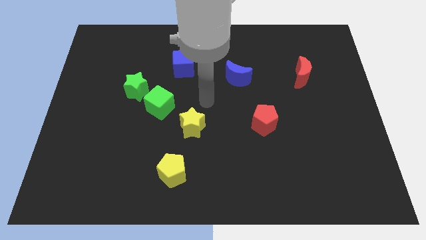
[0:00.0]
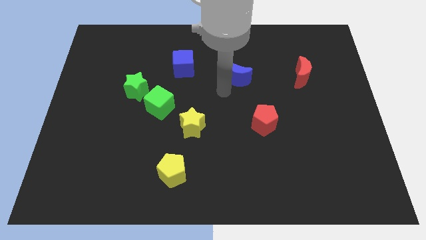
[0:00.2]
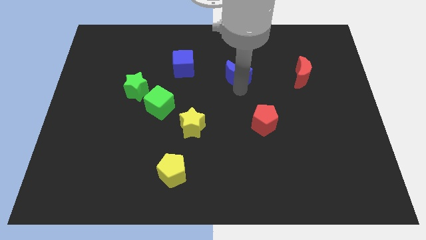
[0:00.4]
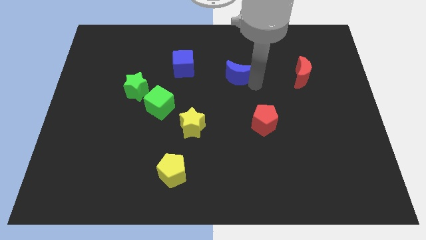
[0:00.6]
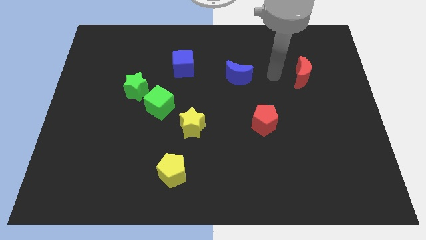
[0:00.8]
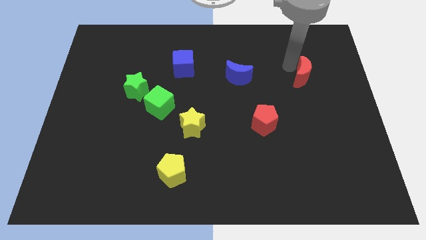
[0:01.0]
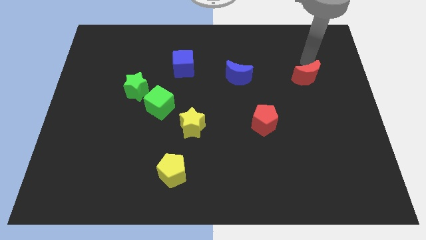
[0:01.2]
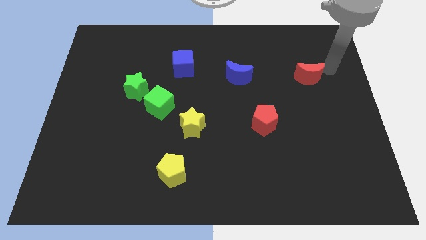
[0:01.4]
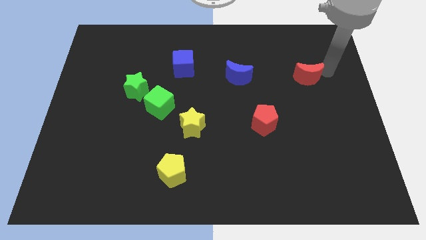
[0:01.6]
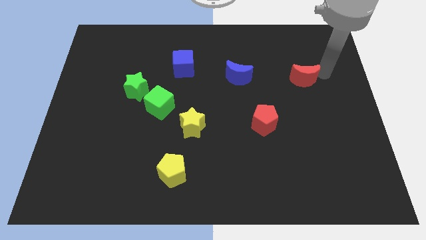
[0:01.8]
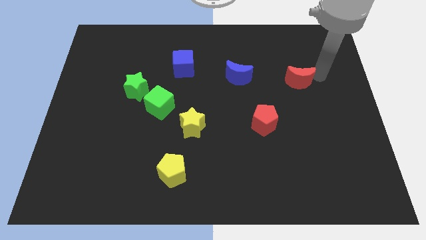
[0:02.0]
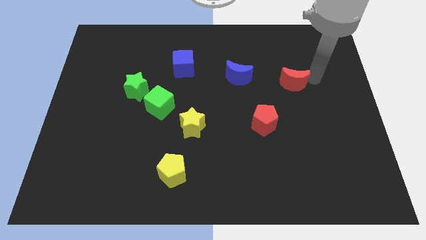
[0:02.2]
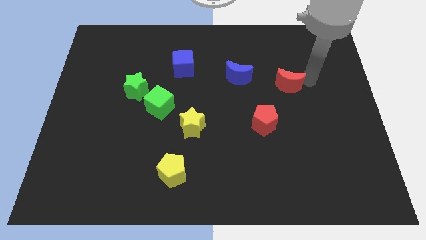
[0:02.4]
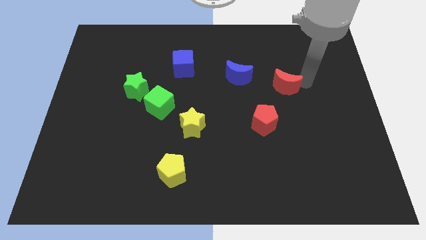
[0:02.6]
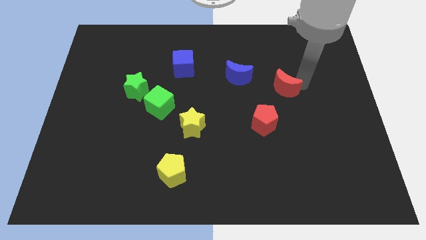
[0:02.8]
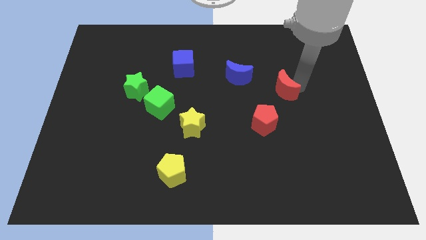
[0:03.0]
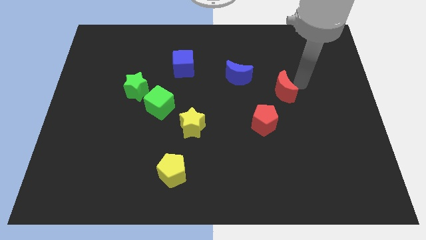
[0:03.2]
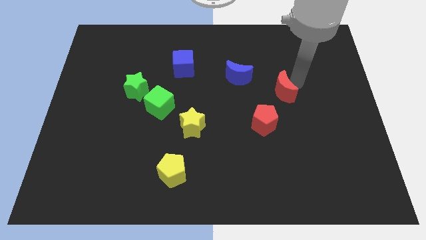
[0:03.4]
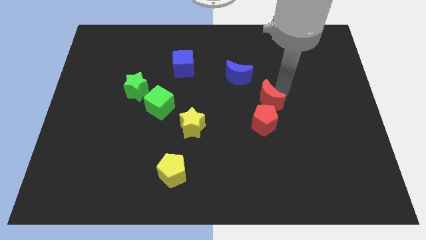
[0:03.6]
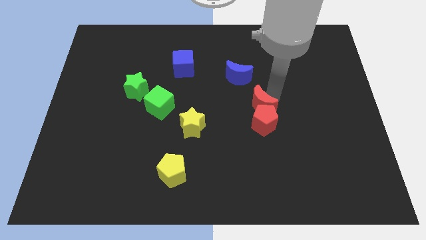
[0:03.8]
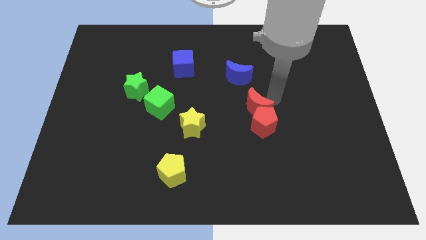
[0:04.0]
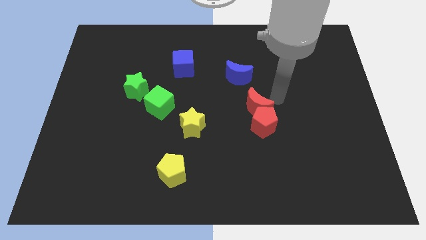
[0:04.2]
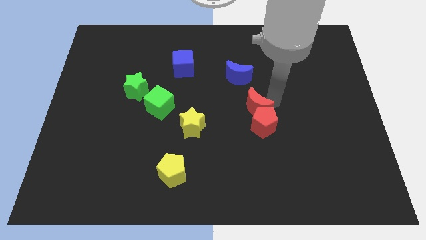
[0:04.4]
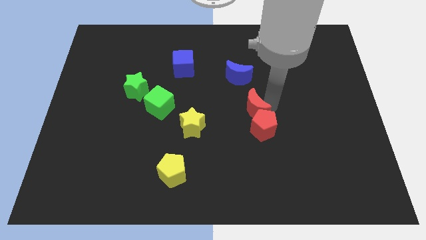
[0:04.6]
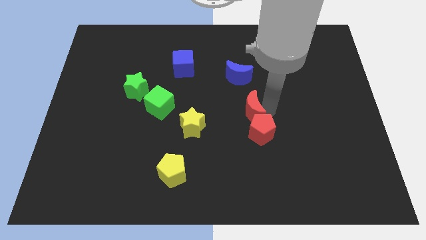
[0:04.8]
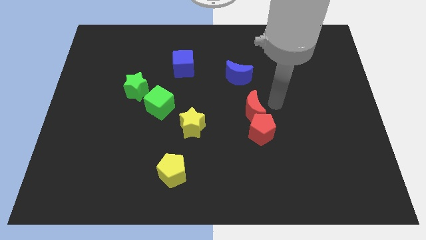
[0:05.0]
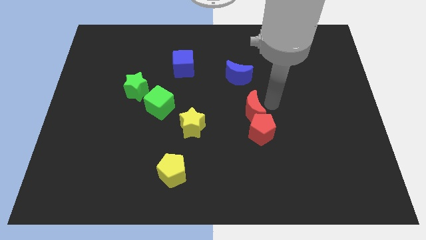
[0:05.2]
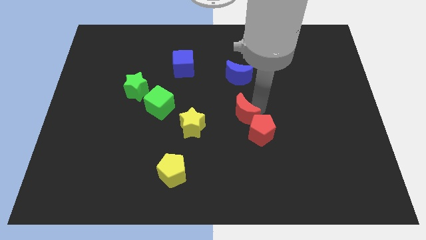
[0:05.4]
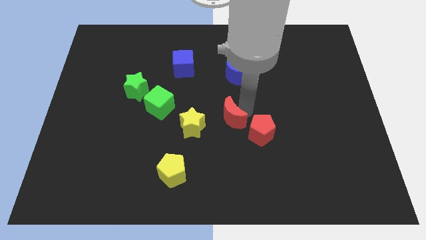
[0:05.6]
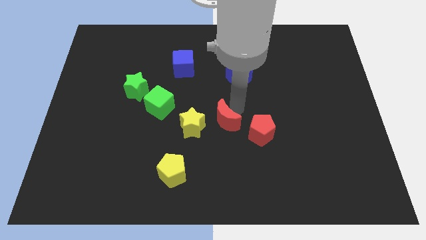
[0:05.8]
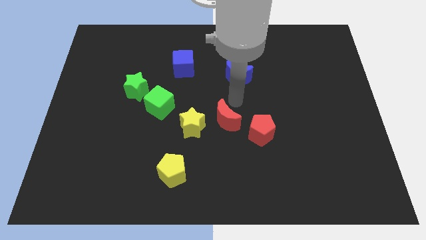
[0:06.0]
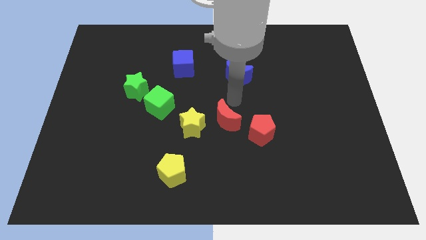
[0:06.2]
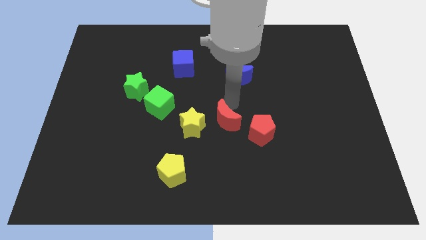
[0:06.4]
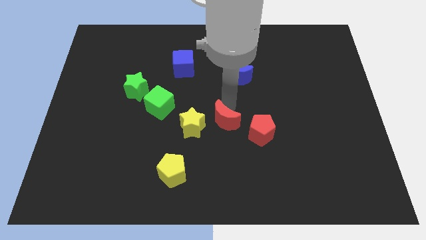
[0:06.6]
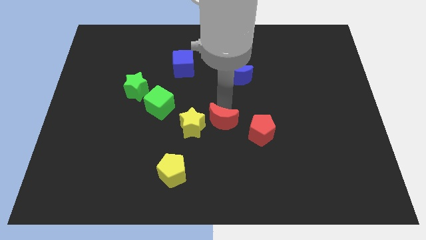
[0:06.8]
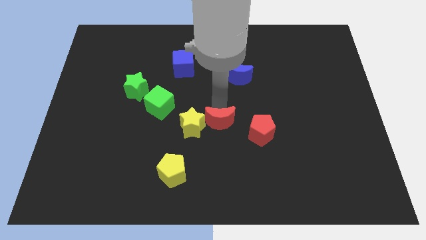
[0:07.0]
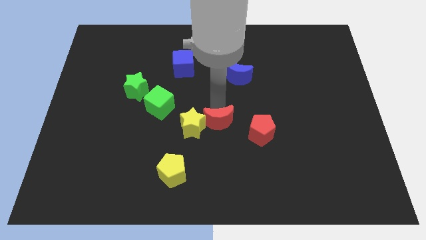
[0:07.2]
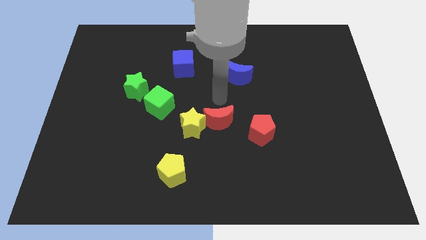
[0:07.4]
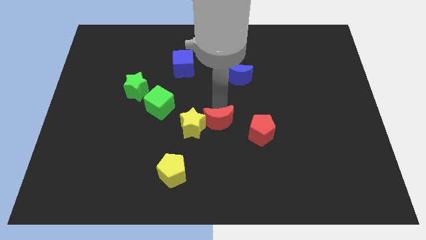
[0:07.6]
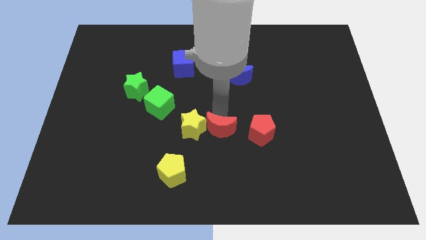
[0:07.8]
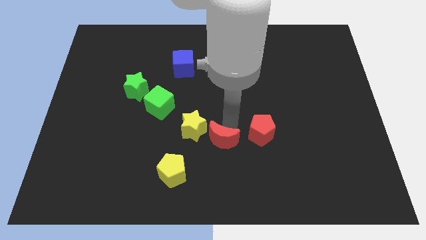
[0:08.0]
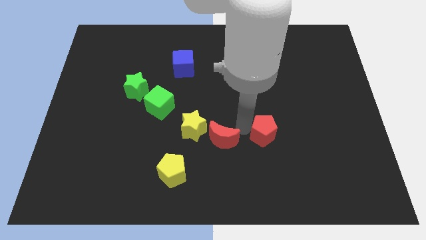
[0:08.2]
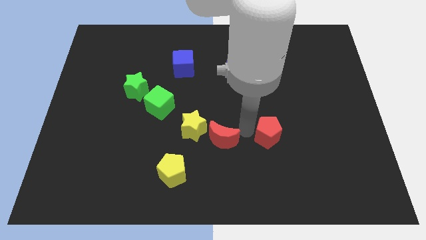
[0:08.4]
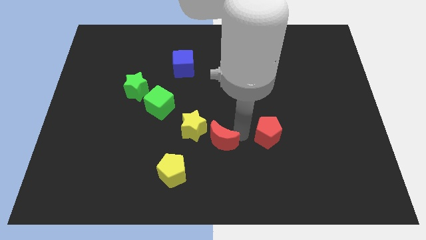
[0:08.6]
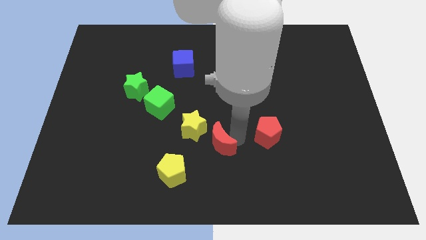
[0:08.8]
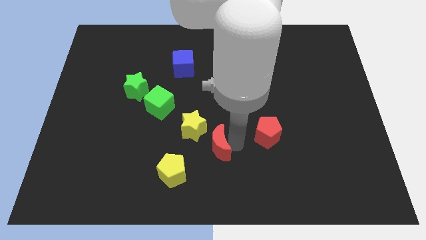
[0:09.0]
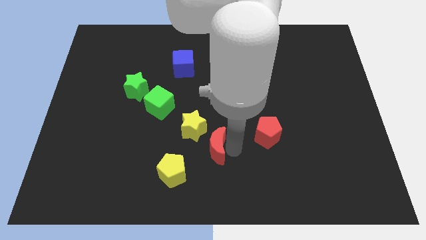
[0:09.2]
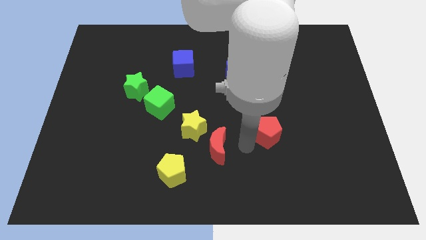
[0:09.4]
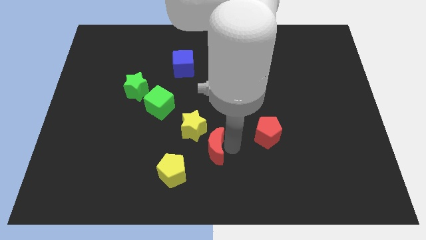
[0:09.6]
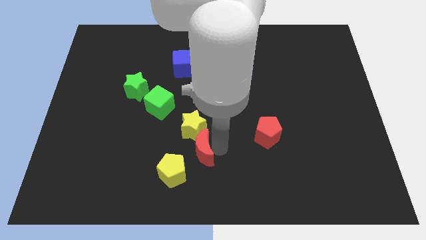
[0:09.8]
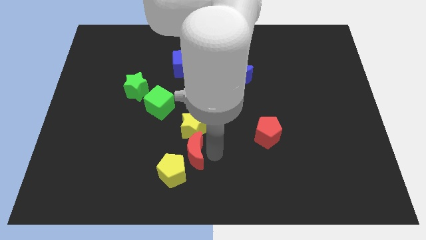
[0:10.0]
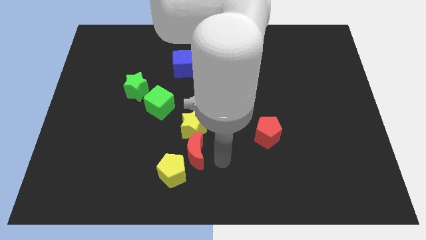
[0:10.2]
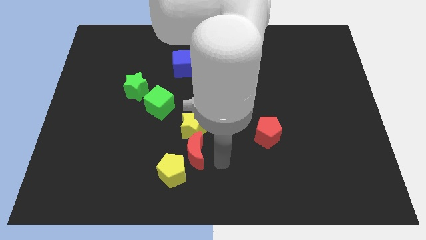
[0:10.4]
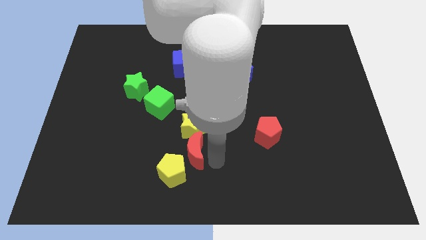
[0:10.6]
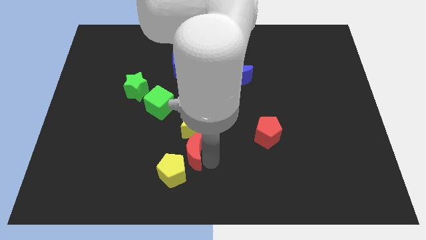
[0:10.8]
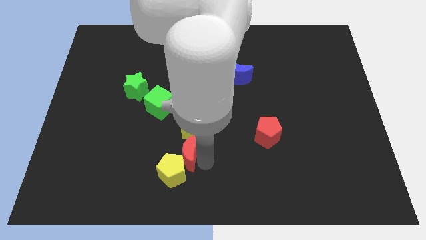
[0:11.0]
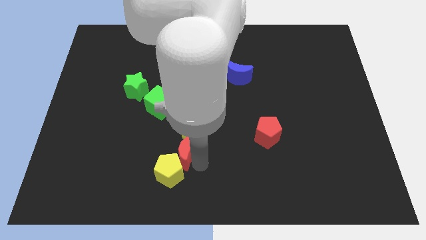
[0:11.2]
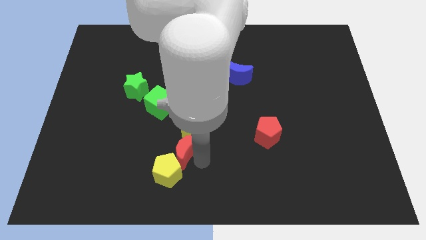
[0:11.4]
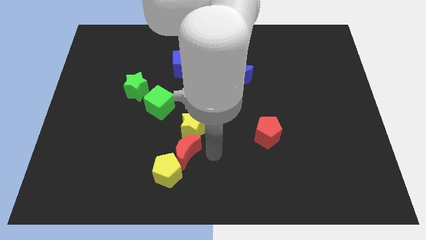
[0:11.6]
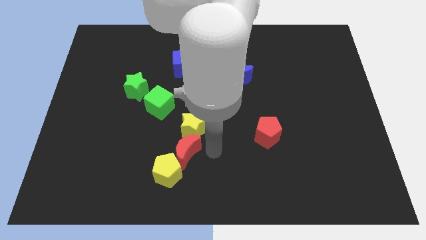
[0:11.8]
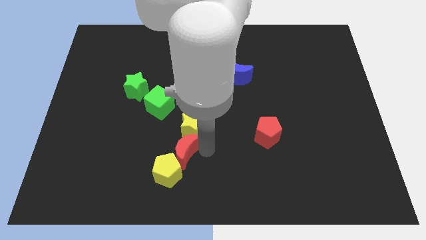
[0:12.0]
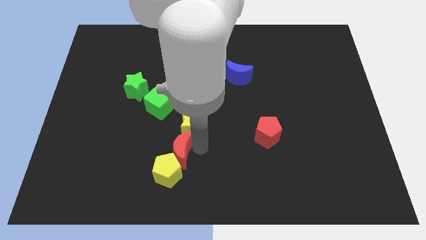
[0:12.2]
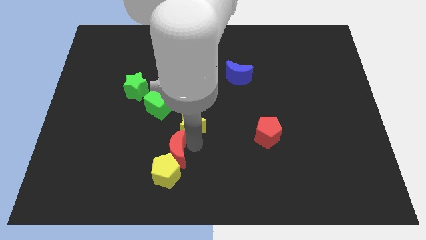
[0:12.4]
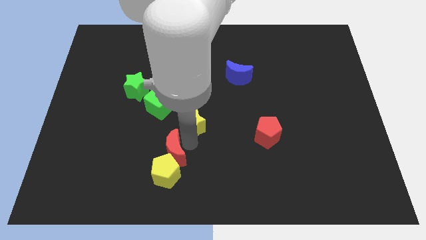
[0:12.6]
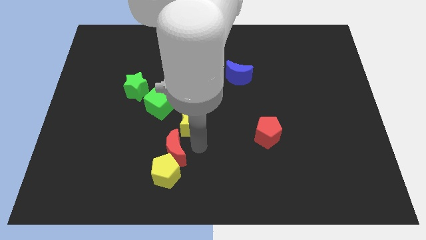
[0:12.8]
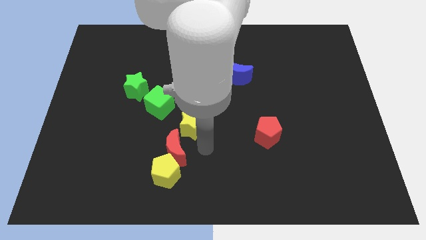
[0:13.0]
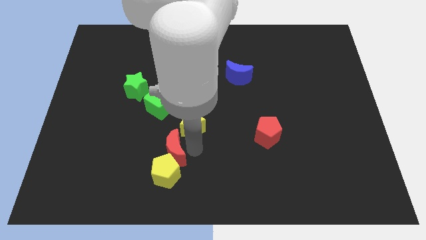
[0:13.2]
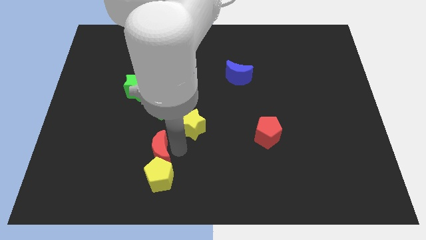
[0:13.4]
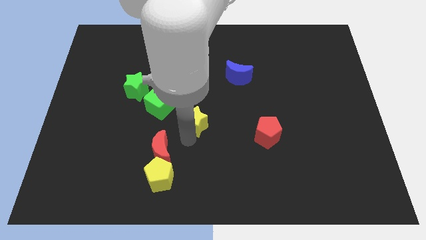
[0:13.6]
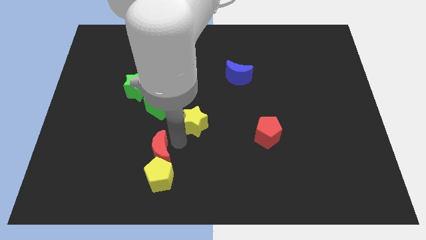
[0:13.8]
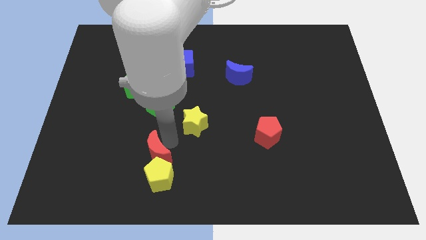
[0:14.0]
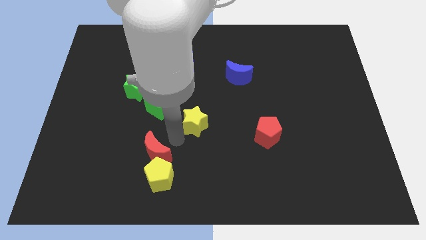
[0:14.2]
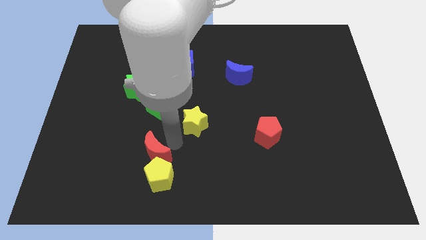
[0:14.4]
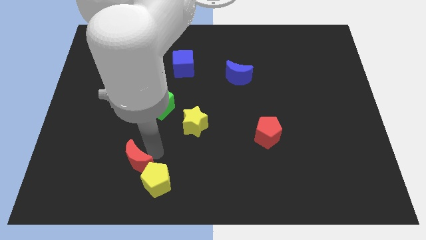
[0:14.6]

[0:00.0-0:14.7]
put the red moon left of the yellow pentagon

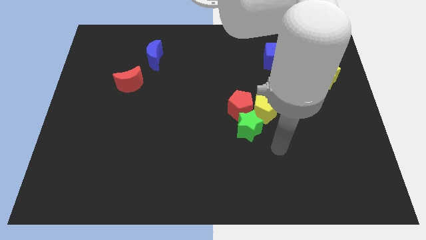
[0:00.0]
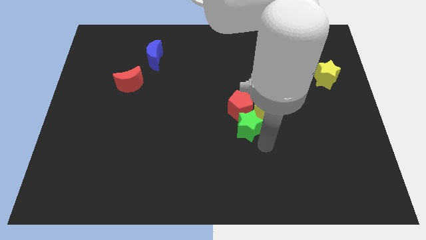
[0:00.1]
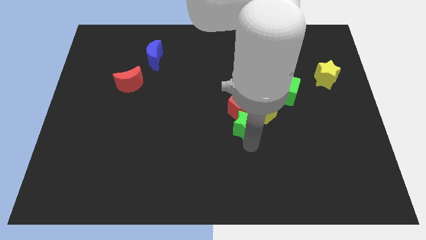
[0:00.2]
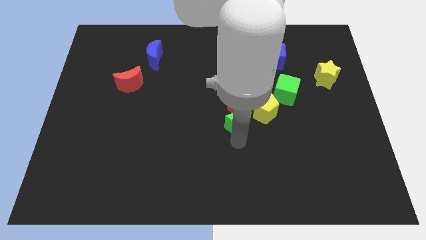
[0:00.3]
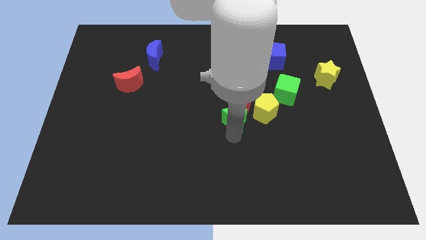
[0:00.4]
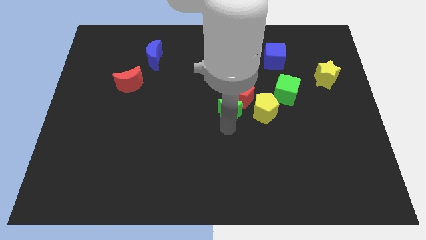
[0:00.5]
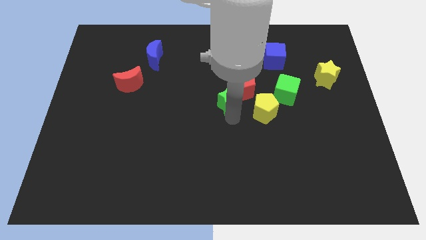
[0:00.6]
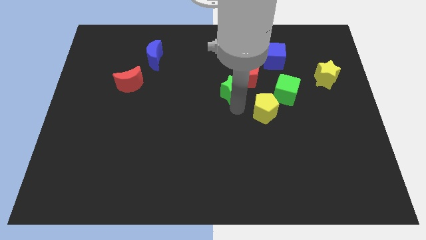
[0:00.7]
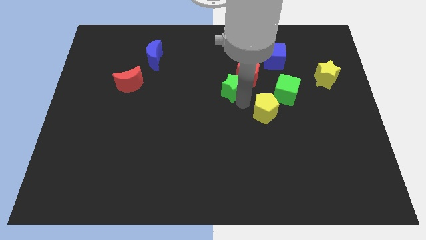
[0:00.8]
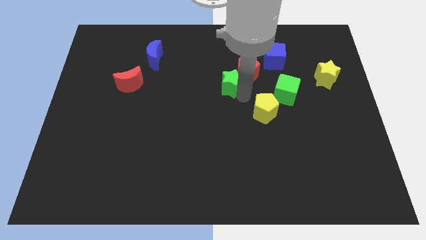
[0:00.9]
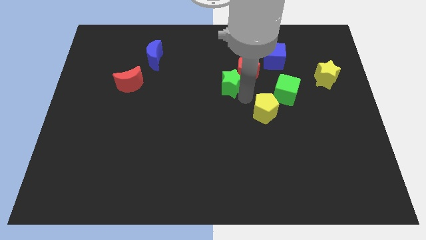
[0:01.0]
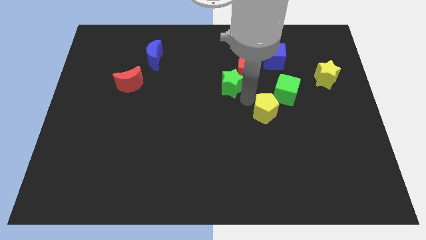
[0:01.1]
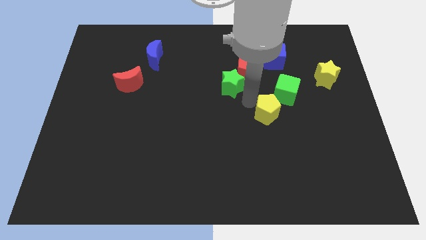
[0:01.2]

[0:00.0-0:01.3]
move the yellow pentagon to the bottom of the green cube
